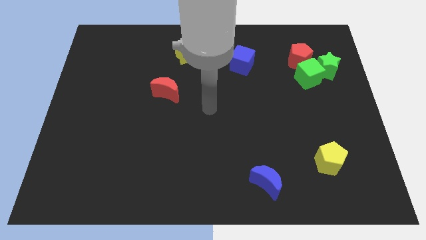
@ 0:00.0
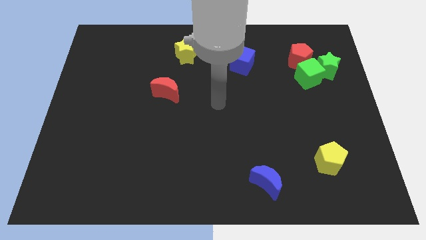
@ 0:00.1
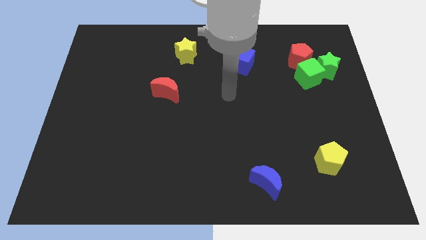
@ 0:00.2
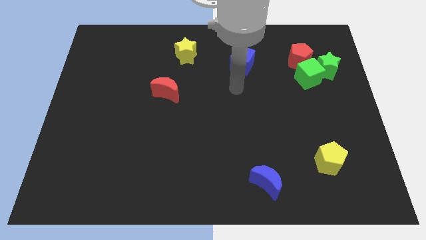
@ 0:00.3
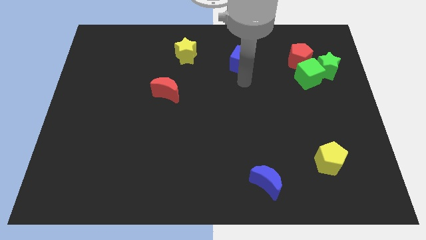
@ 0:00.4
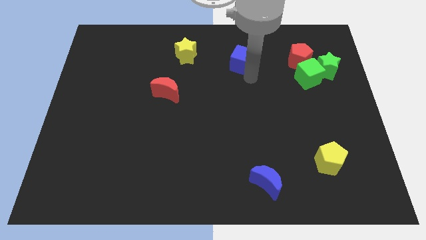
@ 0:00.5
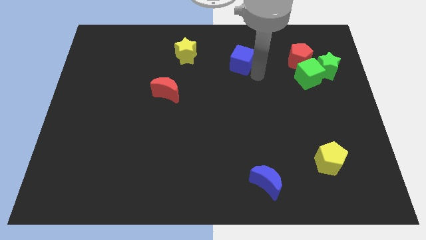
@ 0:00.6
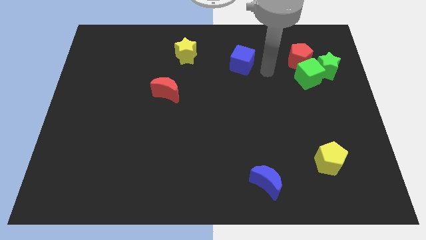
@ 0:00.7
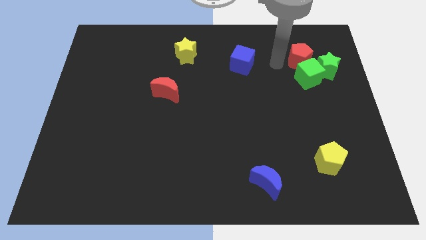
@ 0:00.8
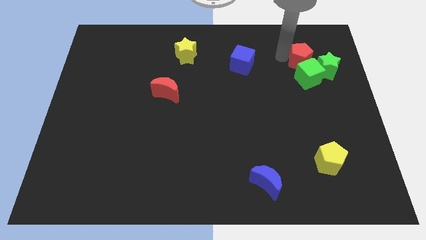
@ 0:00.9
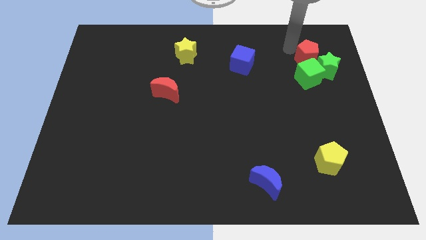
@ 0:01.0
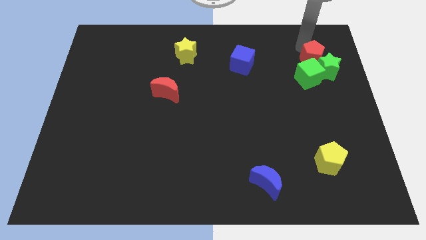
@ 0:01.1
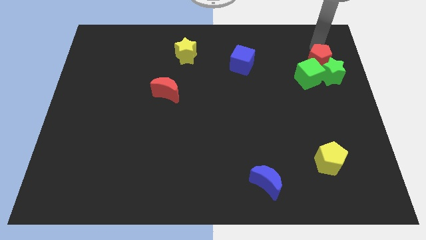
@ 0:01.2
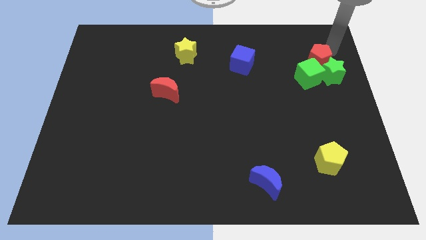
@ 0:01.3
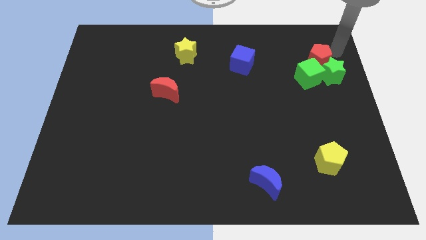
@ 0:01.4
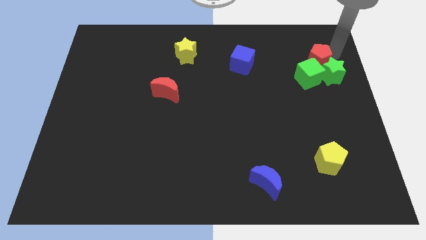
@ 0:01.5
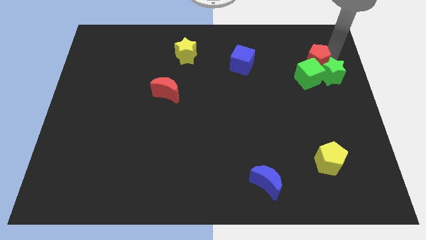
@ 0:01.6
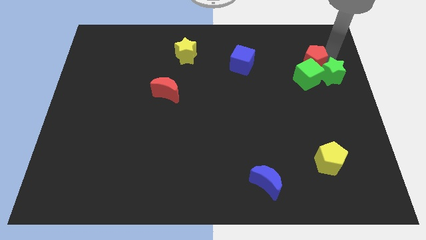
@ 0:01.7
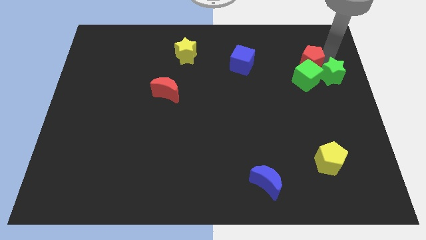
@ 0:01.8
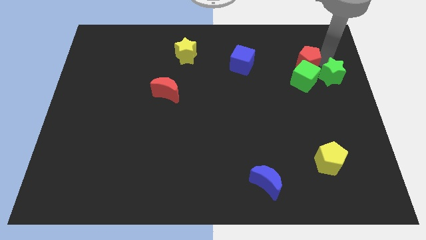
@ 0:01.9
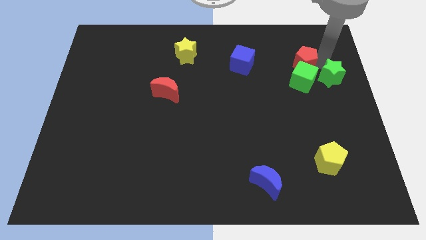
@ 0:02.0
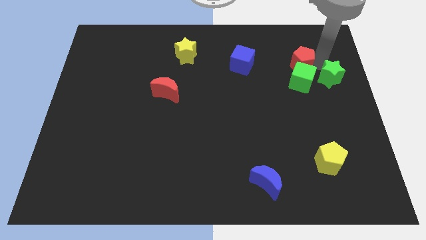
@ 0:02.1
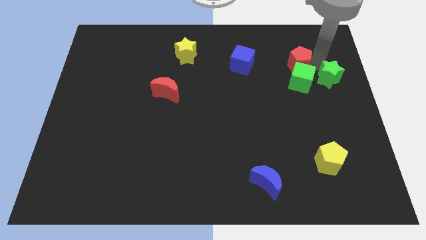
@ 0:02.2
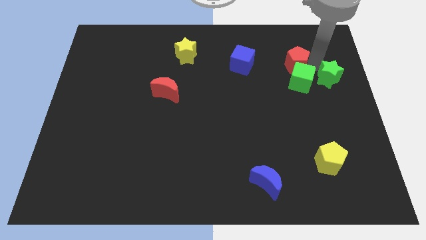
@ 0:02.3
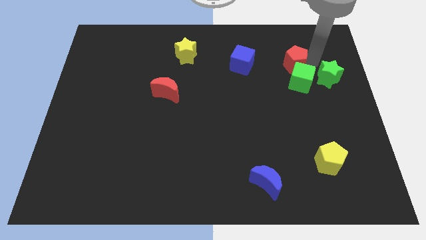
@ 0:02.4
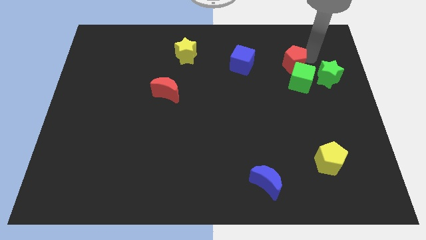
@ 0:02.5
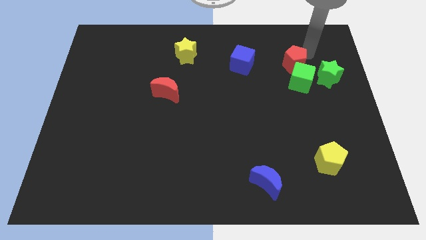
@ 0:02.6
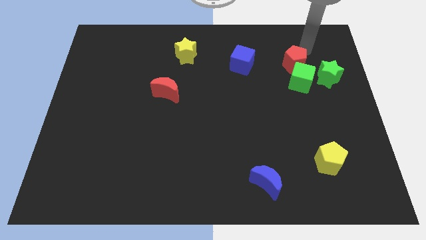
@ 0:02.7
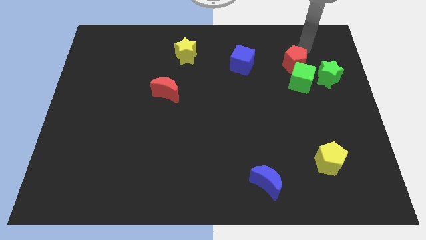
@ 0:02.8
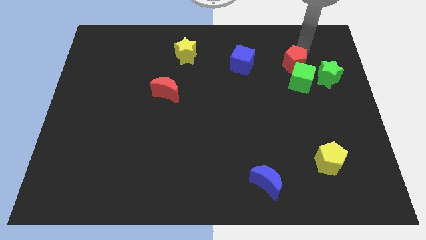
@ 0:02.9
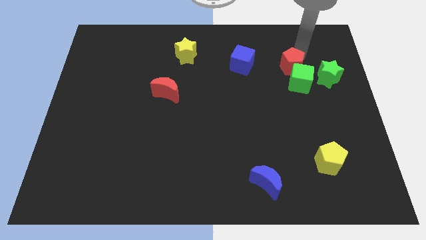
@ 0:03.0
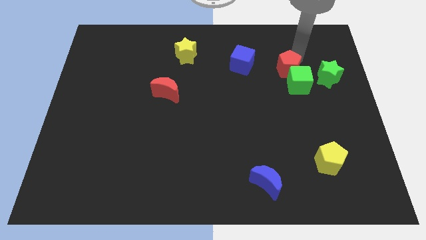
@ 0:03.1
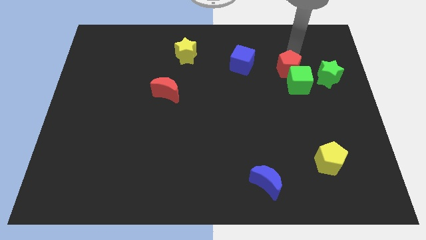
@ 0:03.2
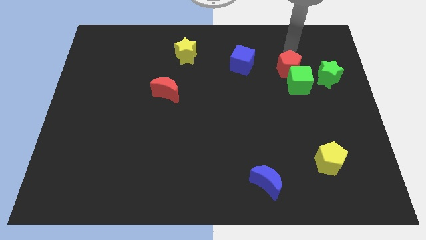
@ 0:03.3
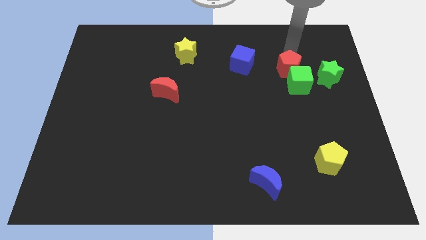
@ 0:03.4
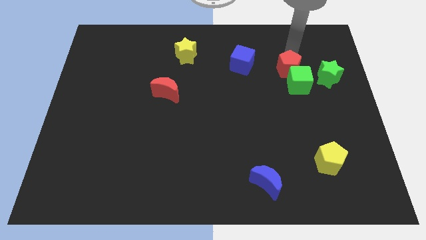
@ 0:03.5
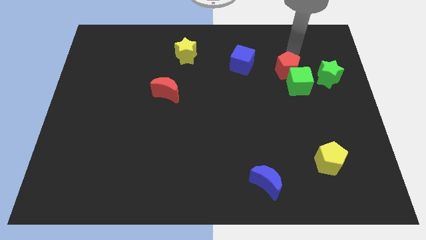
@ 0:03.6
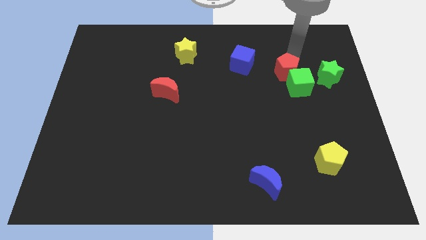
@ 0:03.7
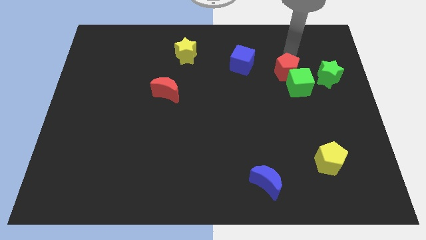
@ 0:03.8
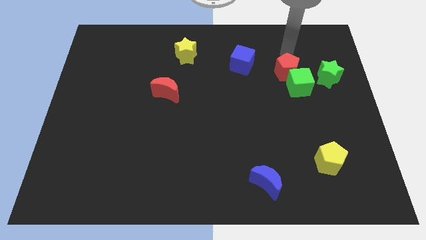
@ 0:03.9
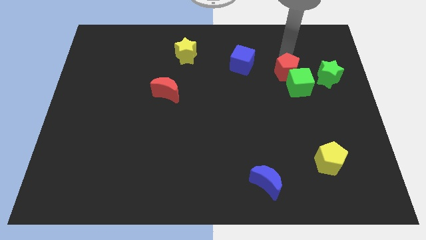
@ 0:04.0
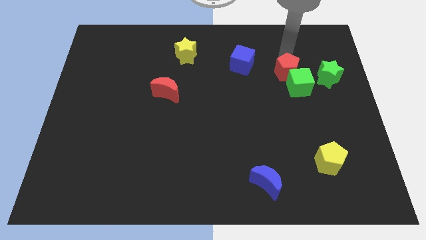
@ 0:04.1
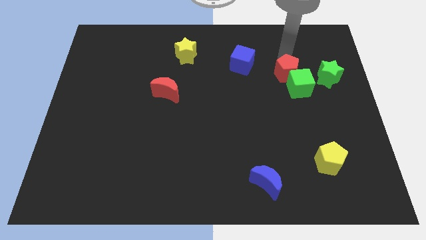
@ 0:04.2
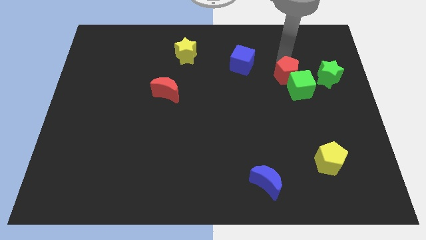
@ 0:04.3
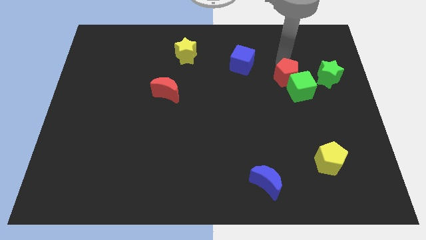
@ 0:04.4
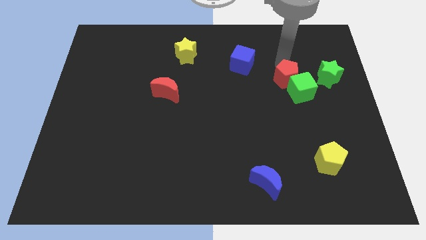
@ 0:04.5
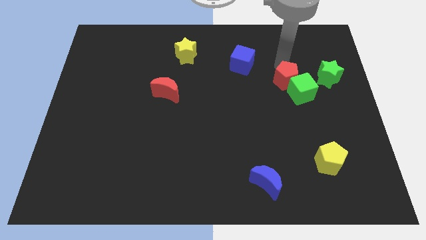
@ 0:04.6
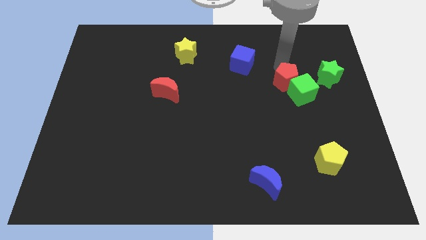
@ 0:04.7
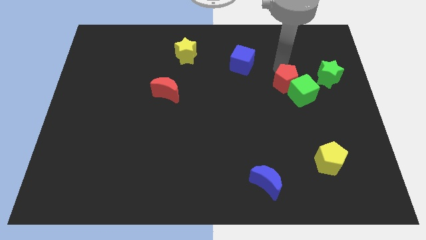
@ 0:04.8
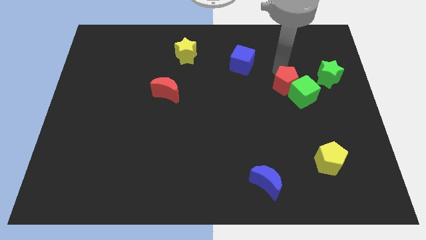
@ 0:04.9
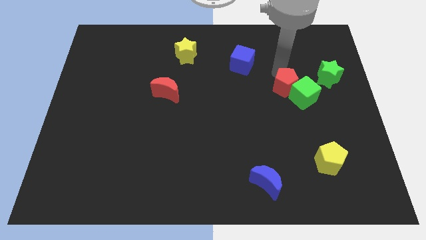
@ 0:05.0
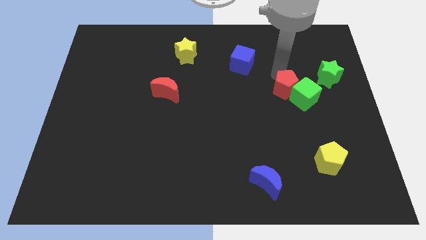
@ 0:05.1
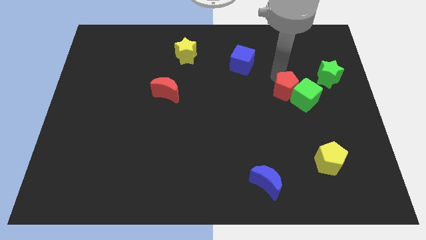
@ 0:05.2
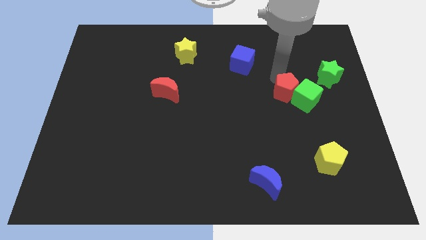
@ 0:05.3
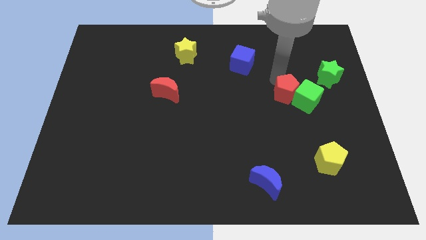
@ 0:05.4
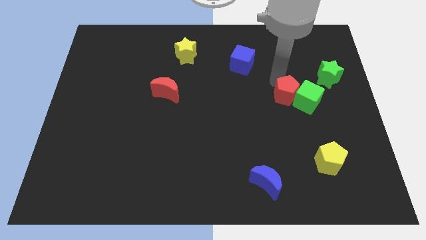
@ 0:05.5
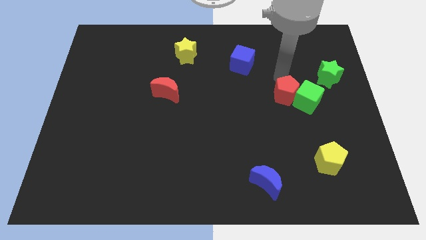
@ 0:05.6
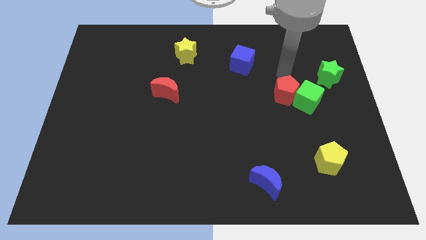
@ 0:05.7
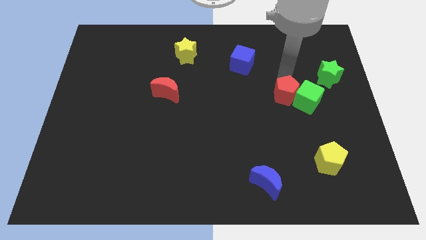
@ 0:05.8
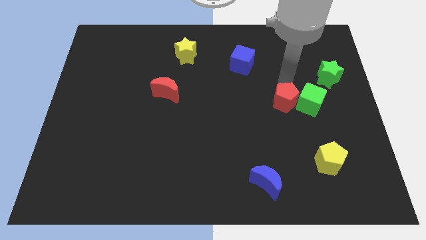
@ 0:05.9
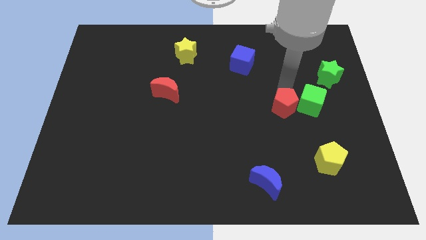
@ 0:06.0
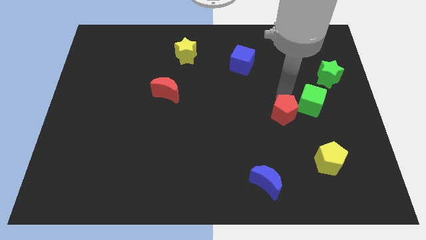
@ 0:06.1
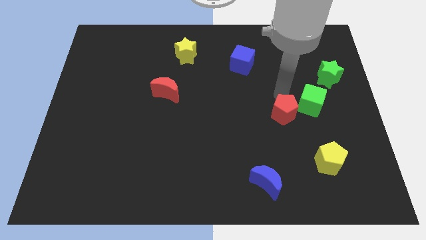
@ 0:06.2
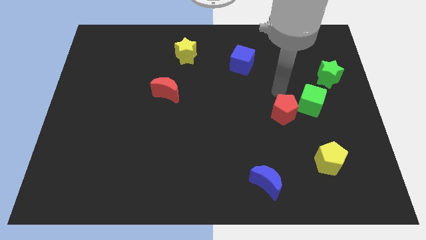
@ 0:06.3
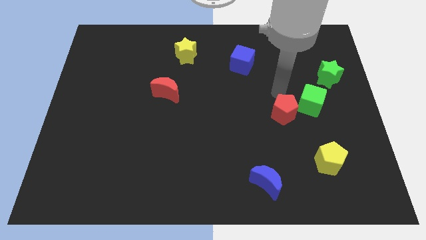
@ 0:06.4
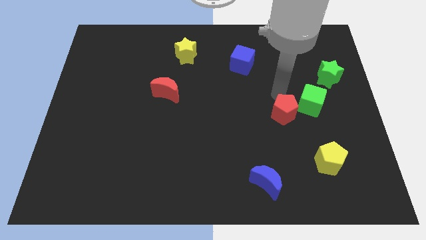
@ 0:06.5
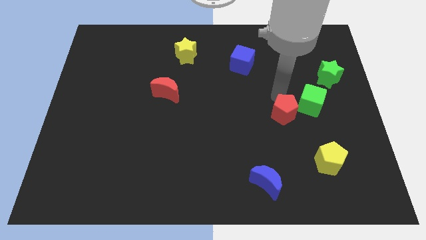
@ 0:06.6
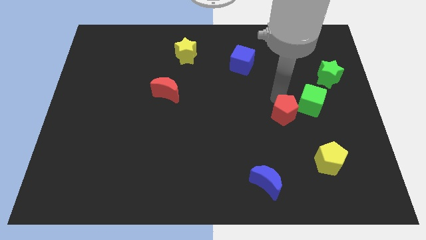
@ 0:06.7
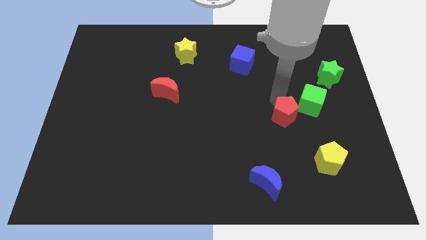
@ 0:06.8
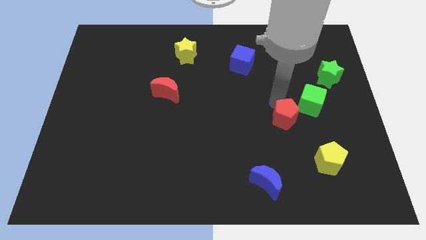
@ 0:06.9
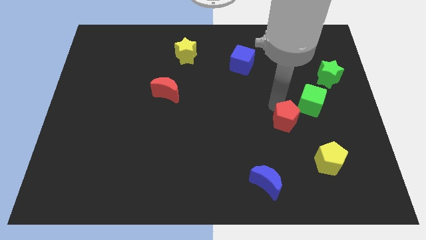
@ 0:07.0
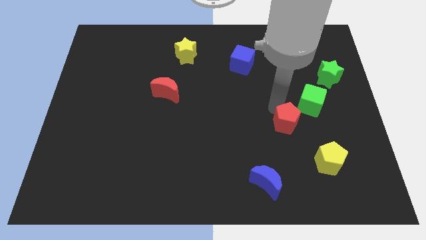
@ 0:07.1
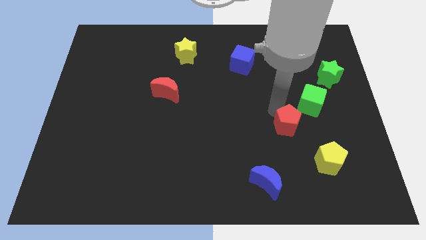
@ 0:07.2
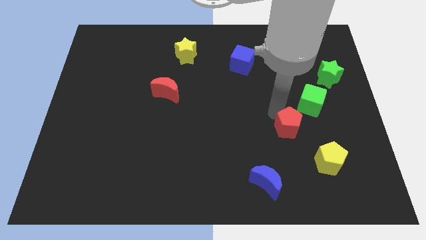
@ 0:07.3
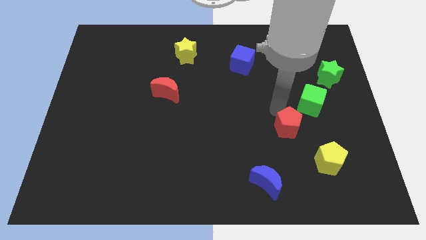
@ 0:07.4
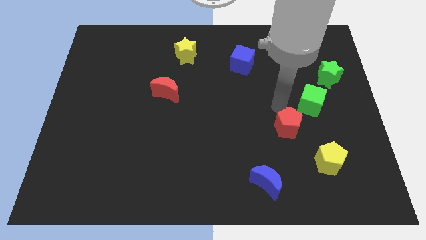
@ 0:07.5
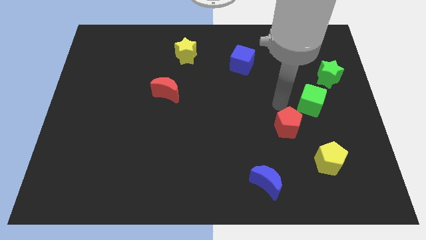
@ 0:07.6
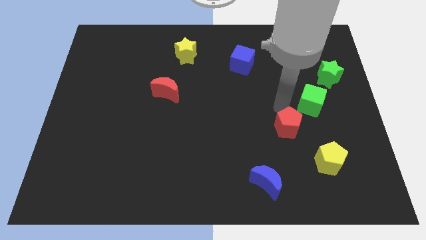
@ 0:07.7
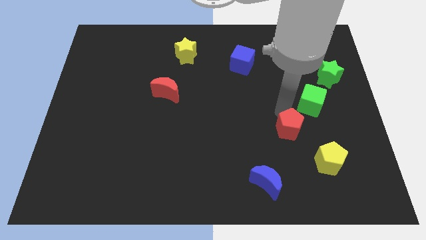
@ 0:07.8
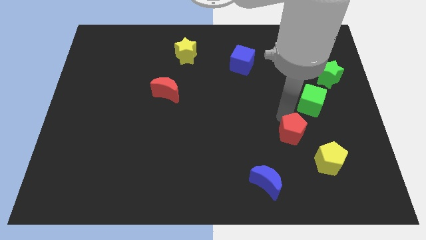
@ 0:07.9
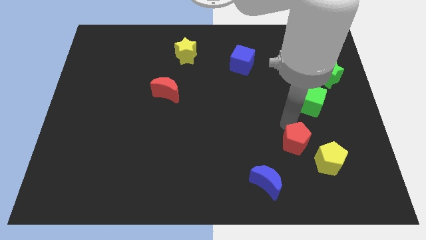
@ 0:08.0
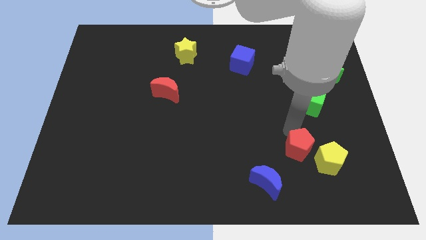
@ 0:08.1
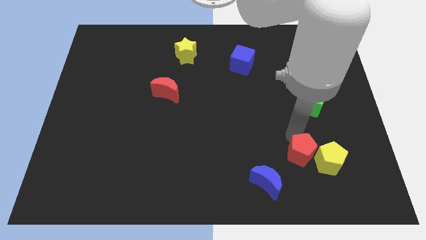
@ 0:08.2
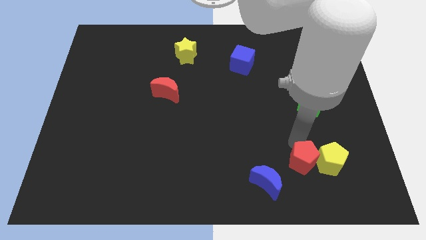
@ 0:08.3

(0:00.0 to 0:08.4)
slide the red pentagon diagonally down and to the left of the yellow pentagon
